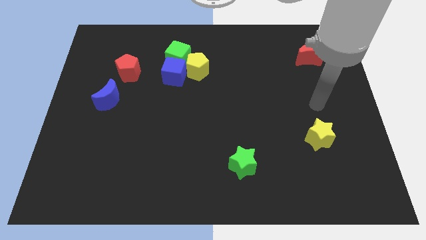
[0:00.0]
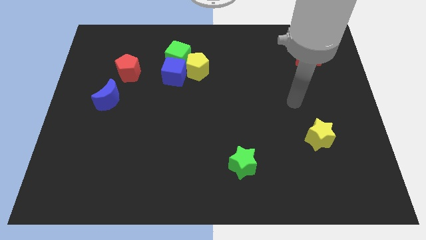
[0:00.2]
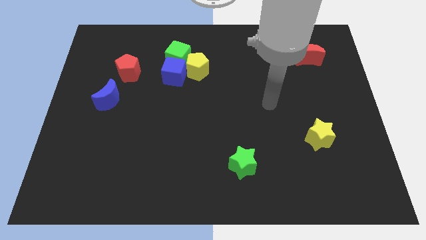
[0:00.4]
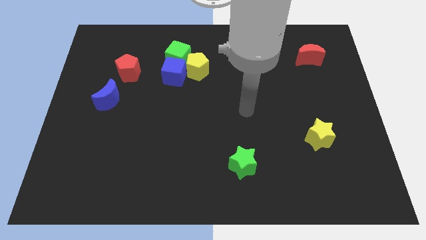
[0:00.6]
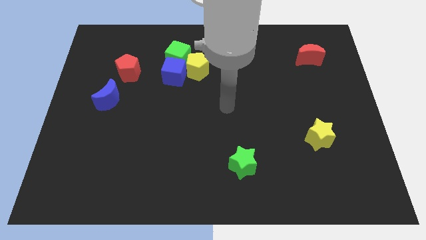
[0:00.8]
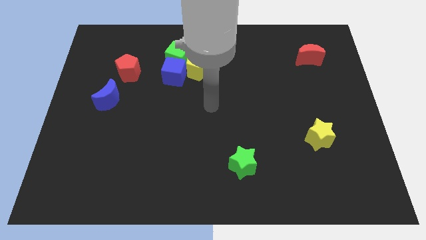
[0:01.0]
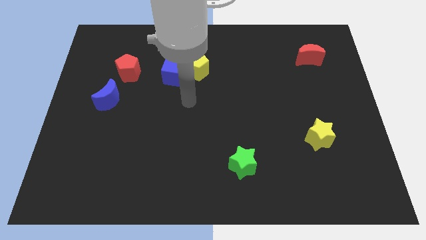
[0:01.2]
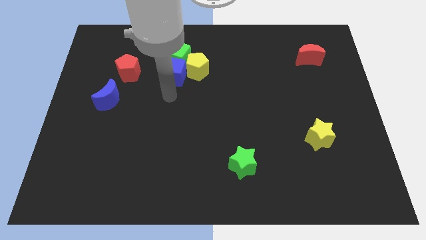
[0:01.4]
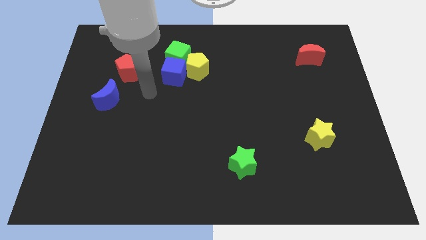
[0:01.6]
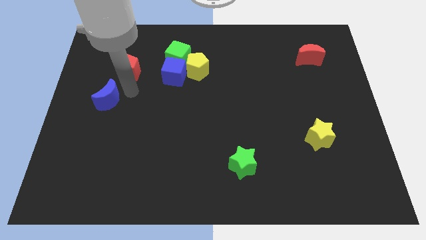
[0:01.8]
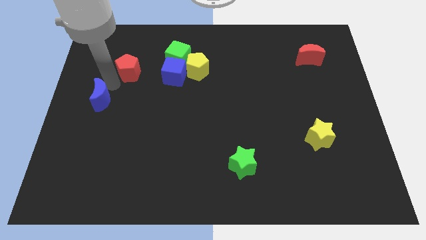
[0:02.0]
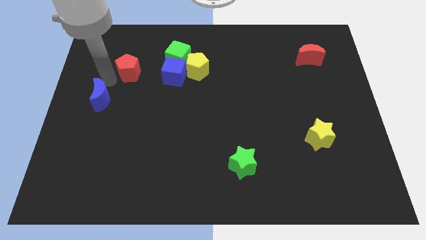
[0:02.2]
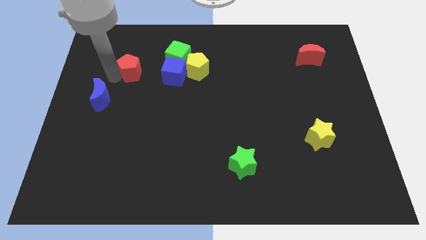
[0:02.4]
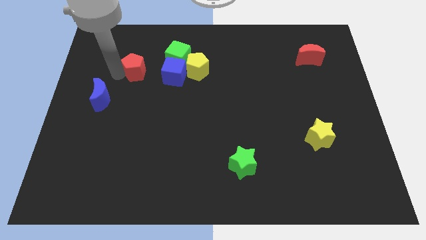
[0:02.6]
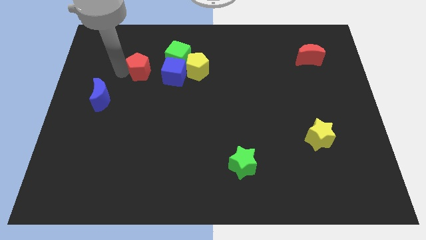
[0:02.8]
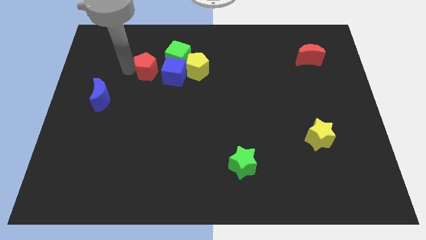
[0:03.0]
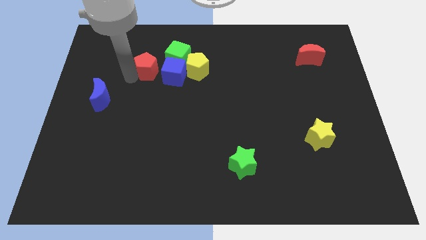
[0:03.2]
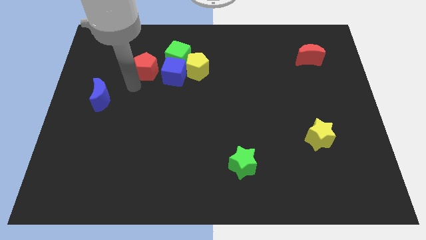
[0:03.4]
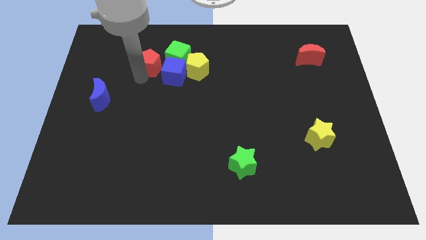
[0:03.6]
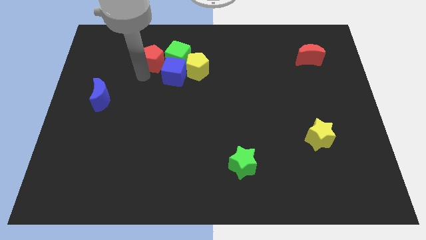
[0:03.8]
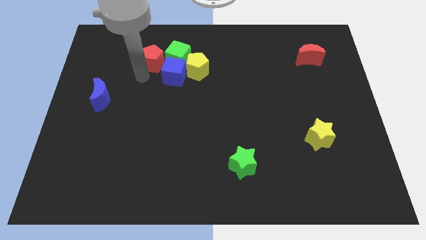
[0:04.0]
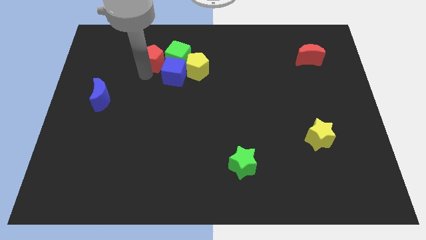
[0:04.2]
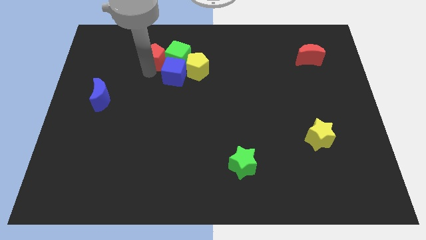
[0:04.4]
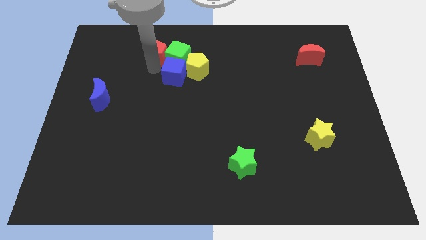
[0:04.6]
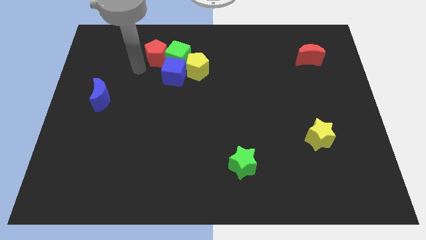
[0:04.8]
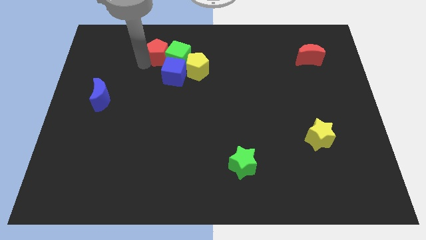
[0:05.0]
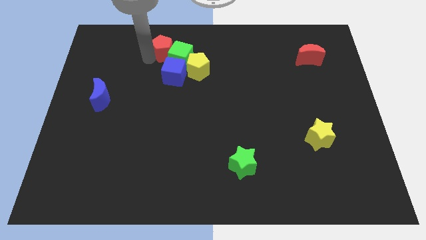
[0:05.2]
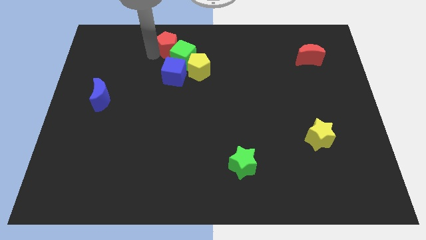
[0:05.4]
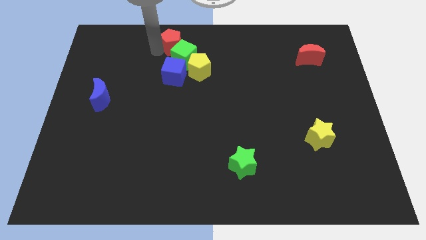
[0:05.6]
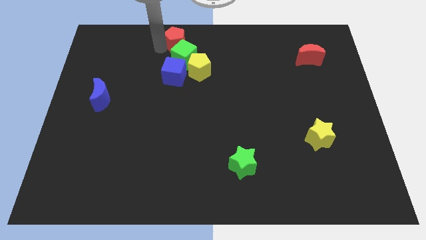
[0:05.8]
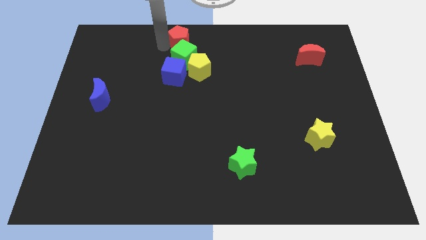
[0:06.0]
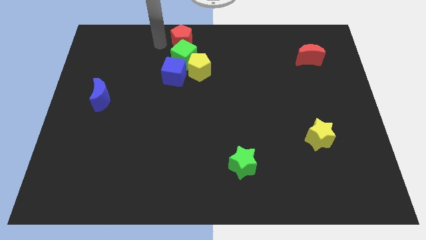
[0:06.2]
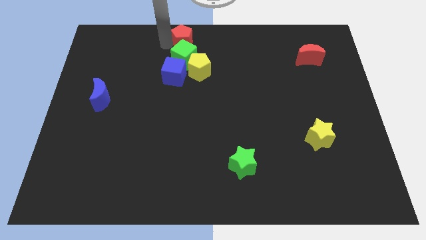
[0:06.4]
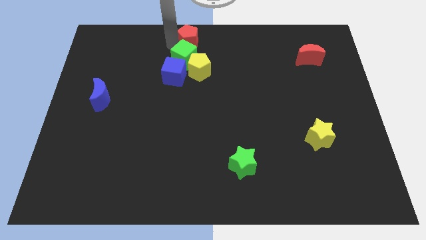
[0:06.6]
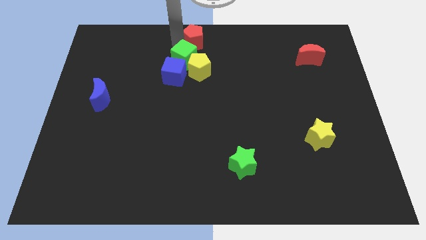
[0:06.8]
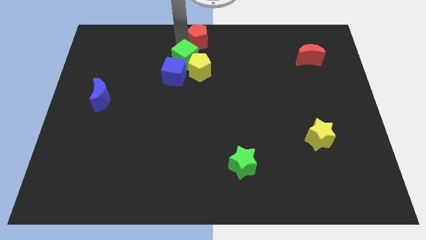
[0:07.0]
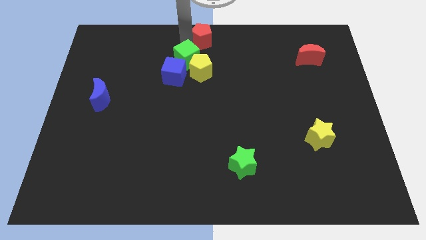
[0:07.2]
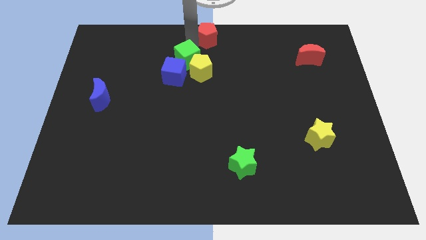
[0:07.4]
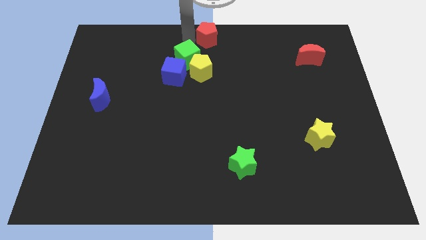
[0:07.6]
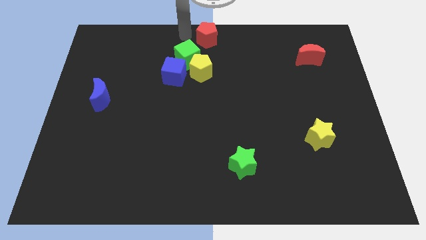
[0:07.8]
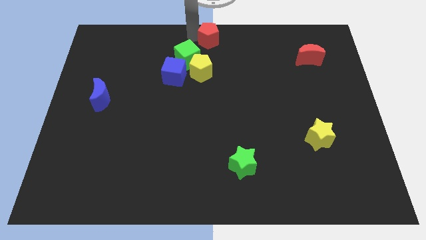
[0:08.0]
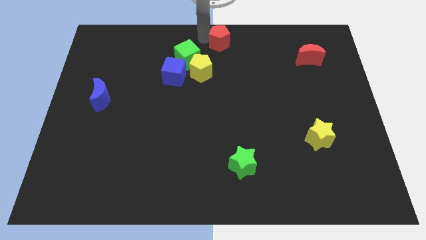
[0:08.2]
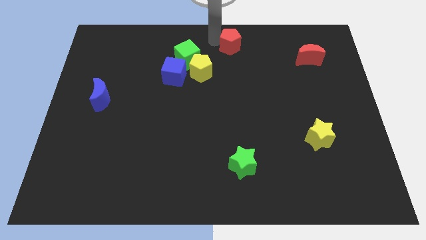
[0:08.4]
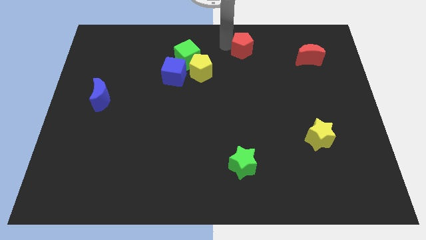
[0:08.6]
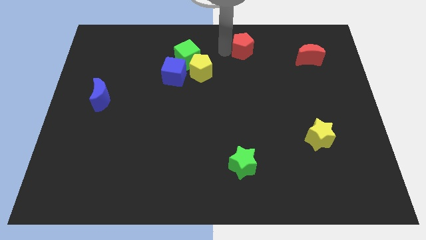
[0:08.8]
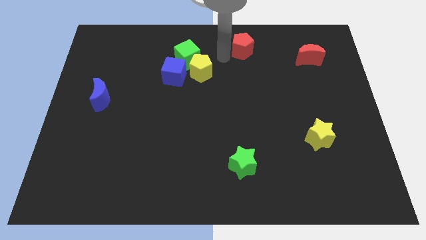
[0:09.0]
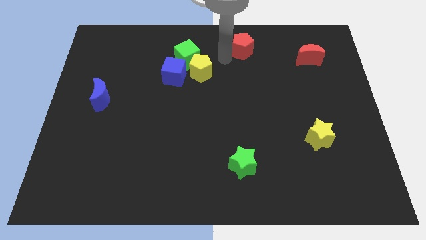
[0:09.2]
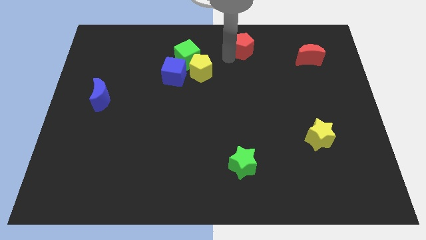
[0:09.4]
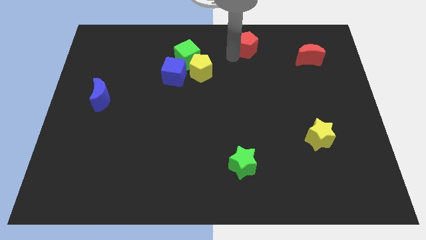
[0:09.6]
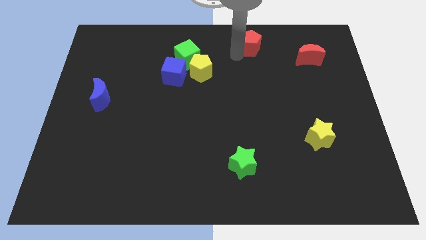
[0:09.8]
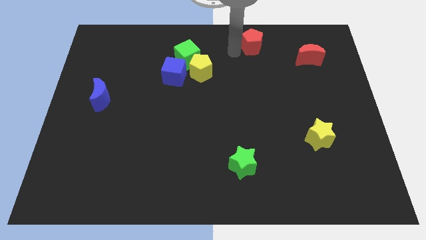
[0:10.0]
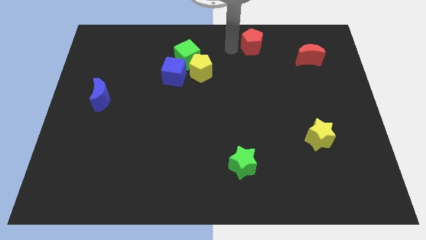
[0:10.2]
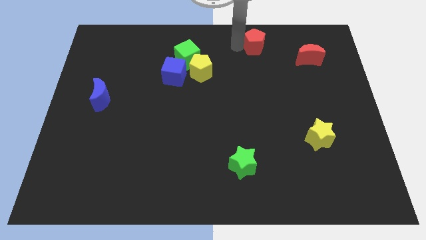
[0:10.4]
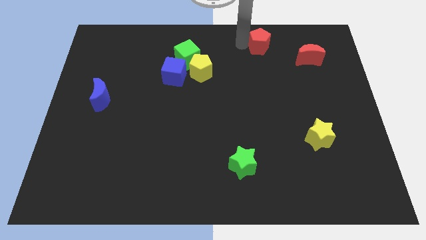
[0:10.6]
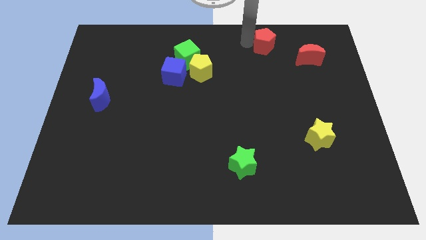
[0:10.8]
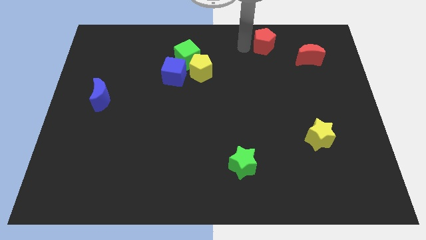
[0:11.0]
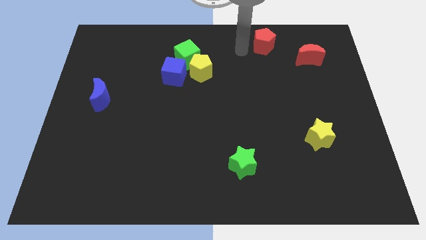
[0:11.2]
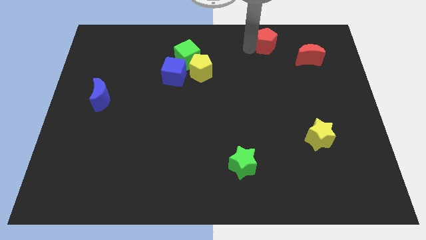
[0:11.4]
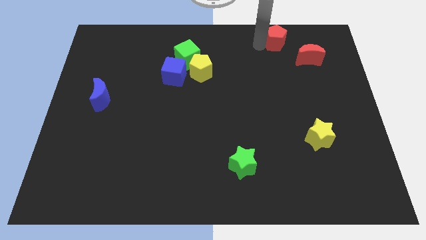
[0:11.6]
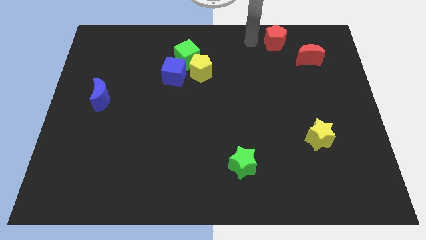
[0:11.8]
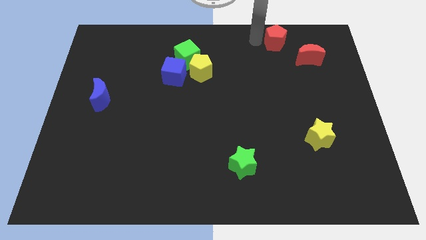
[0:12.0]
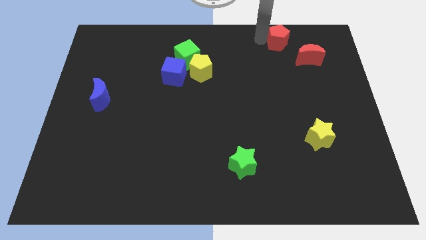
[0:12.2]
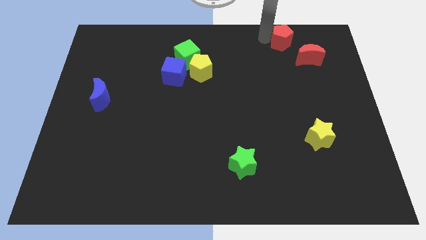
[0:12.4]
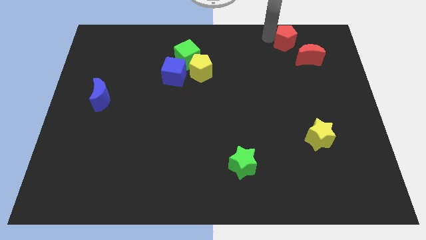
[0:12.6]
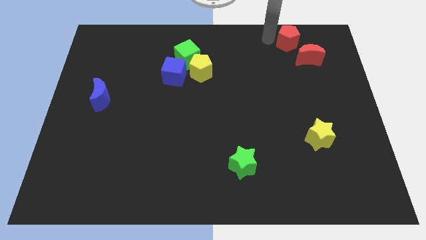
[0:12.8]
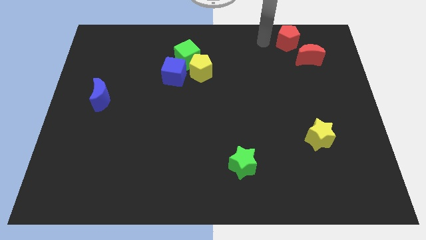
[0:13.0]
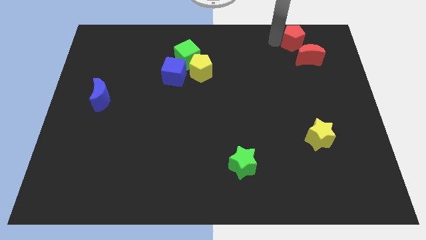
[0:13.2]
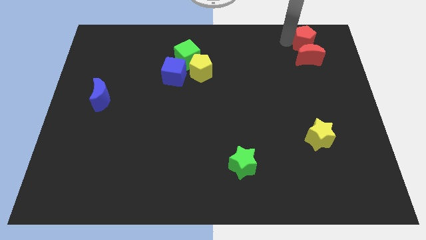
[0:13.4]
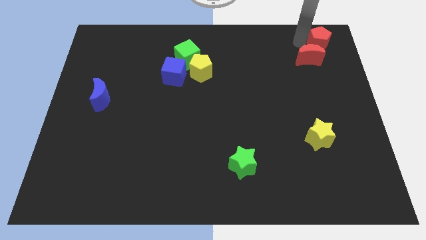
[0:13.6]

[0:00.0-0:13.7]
push the red pentagon to the top right corner

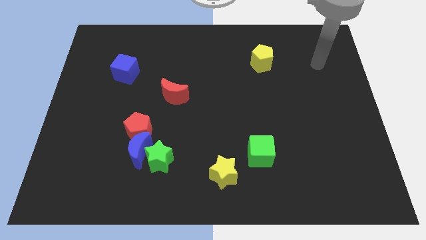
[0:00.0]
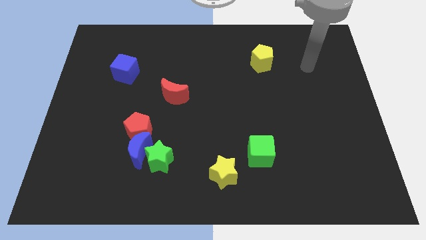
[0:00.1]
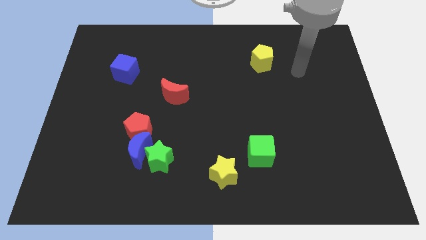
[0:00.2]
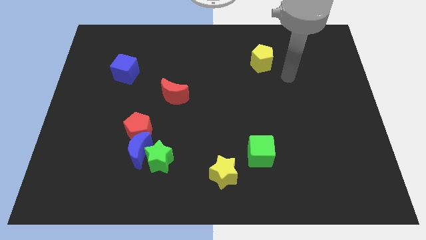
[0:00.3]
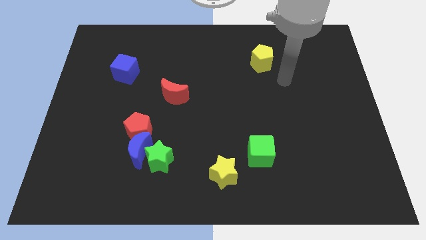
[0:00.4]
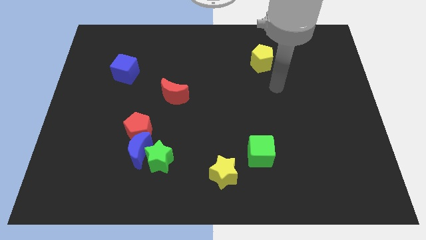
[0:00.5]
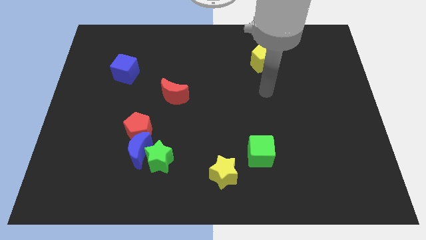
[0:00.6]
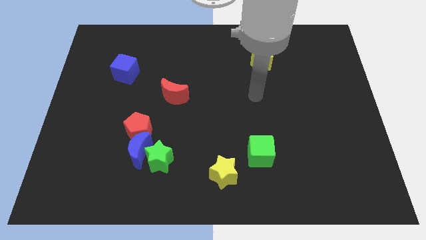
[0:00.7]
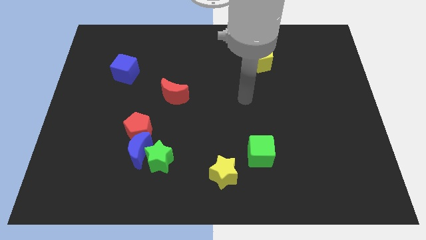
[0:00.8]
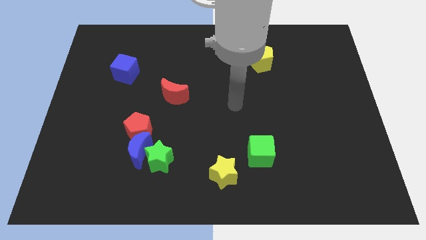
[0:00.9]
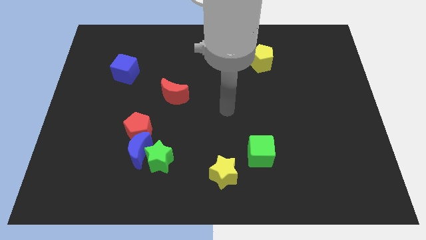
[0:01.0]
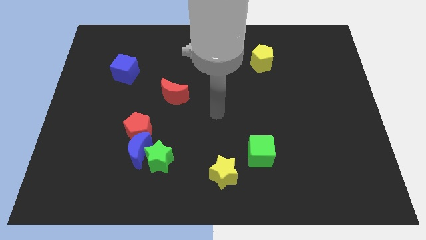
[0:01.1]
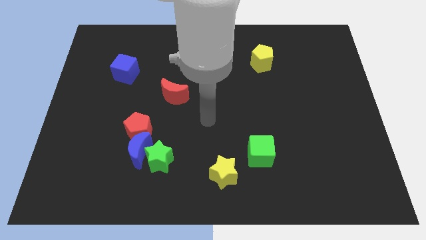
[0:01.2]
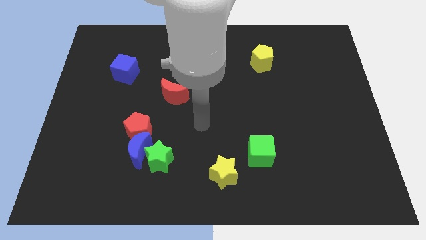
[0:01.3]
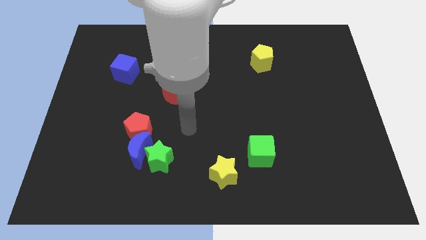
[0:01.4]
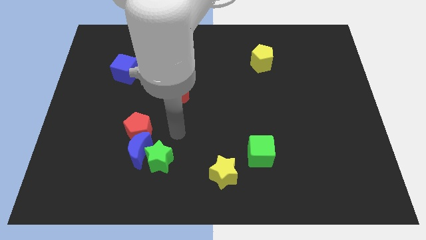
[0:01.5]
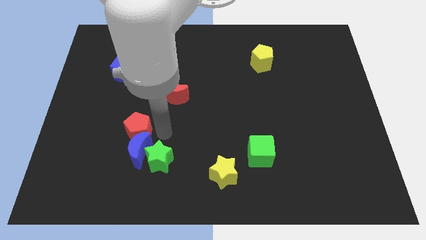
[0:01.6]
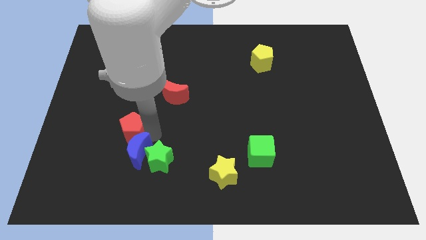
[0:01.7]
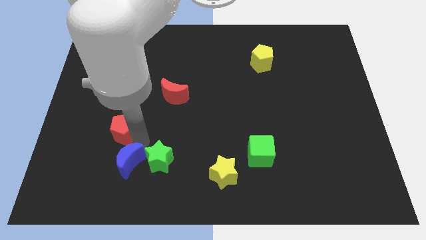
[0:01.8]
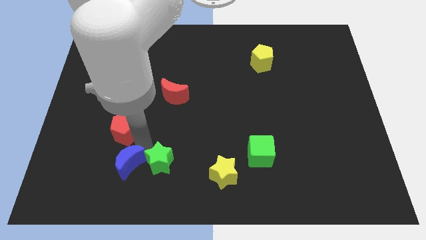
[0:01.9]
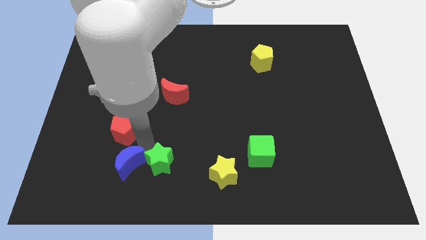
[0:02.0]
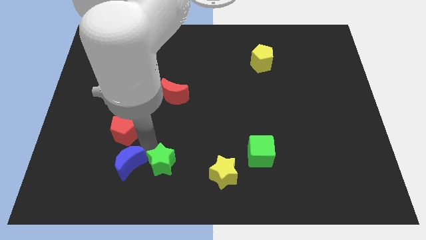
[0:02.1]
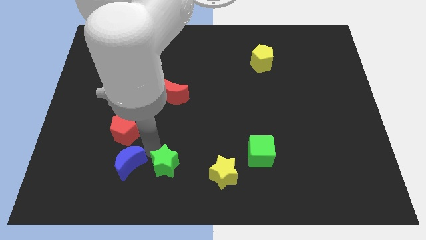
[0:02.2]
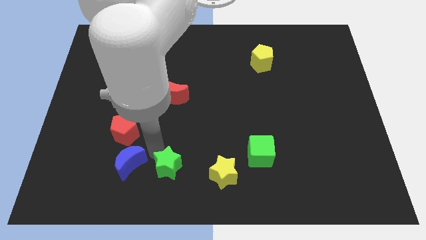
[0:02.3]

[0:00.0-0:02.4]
put the green star to the bottom
